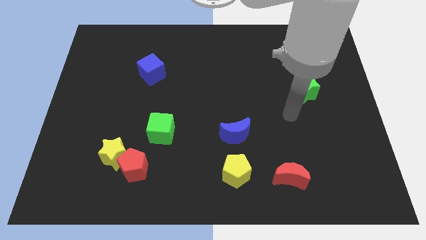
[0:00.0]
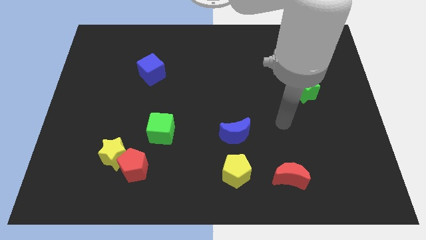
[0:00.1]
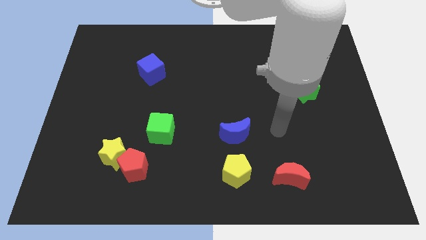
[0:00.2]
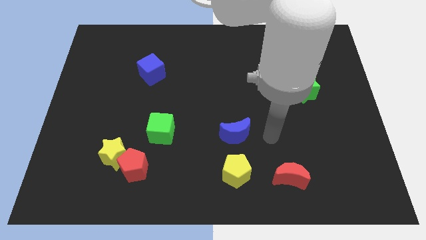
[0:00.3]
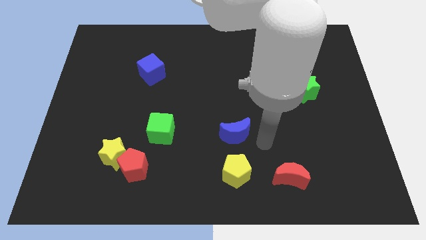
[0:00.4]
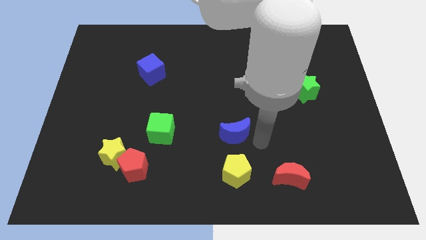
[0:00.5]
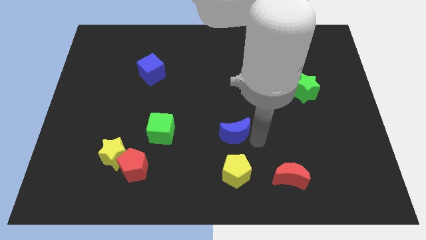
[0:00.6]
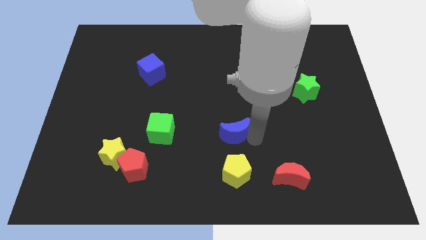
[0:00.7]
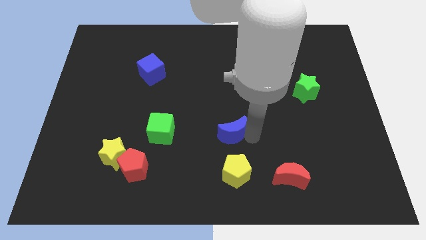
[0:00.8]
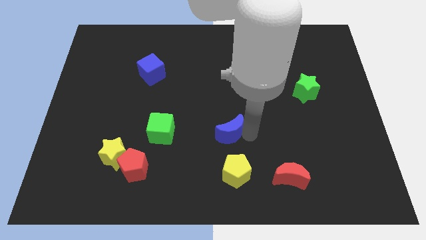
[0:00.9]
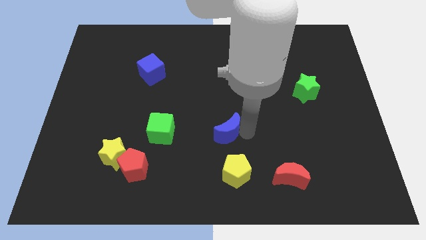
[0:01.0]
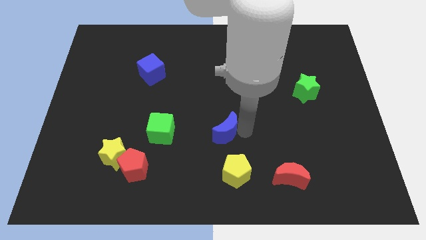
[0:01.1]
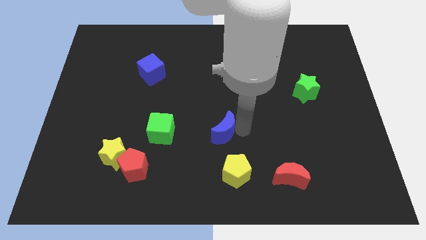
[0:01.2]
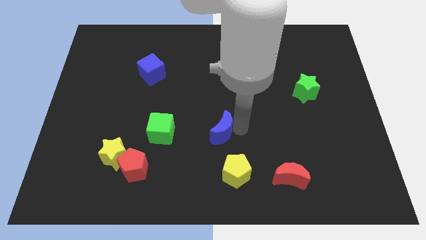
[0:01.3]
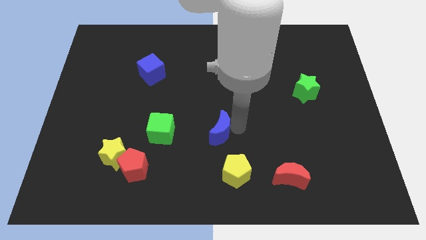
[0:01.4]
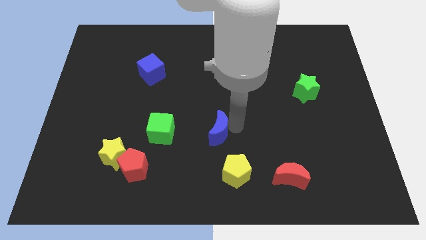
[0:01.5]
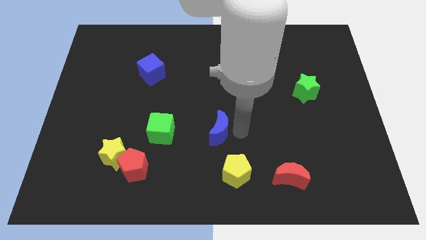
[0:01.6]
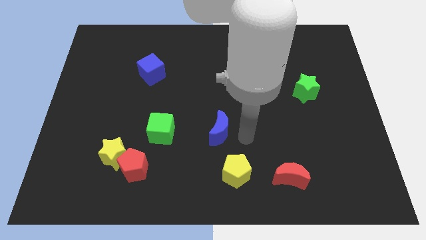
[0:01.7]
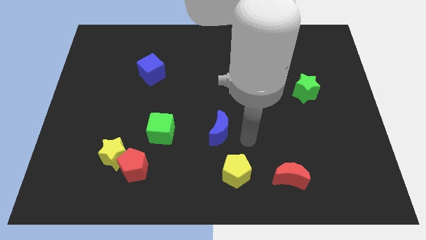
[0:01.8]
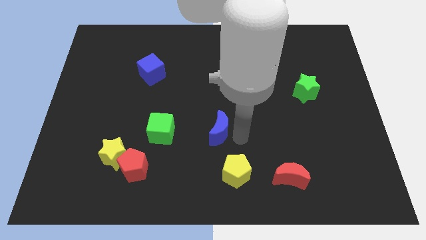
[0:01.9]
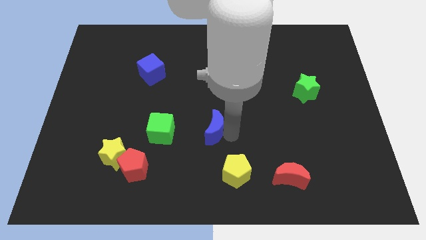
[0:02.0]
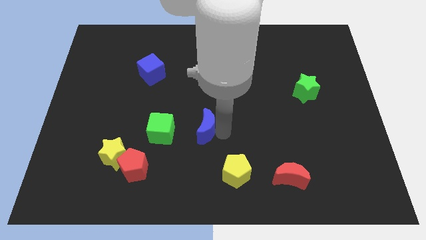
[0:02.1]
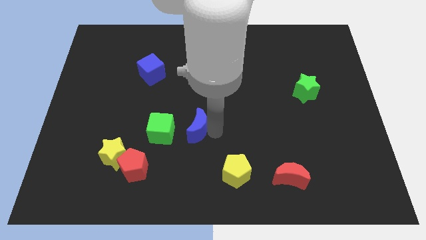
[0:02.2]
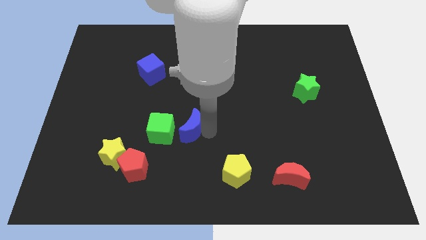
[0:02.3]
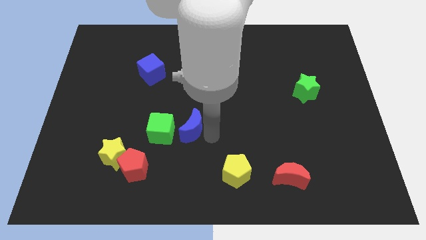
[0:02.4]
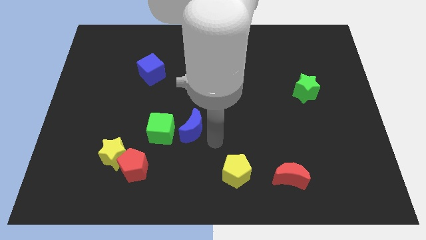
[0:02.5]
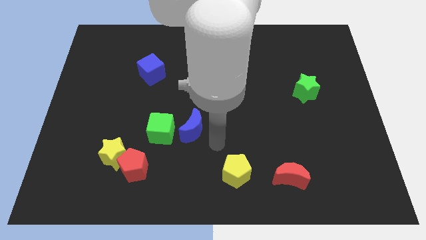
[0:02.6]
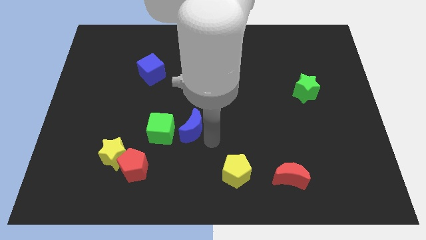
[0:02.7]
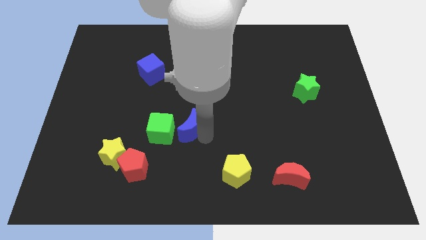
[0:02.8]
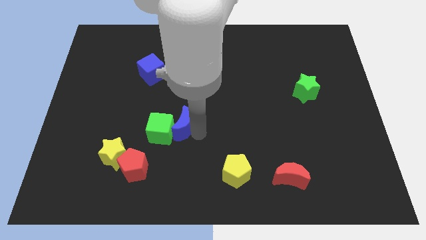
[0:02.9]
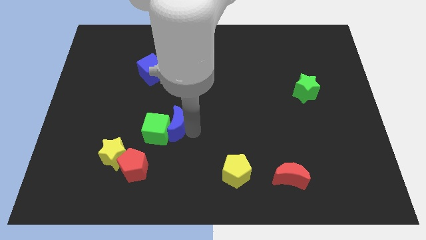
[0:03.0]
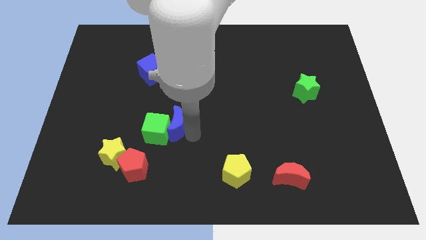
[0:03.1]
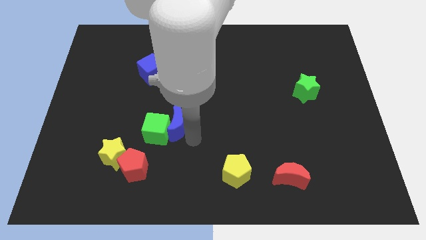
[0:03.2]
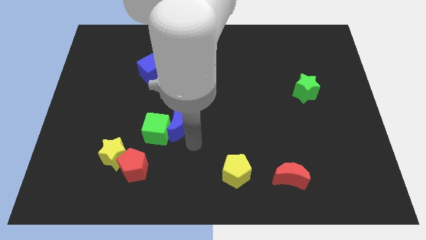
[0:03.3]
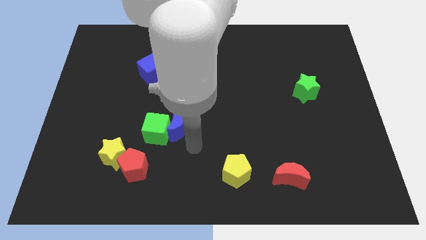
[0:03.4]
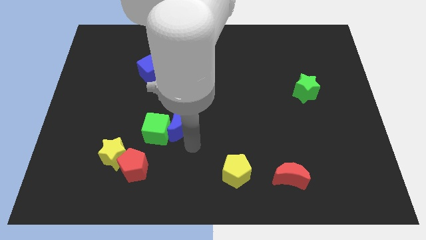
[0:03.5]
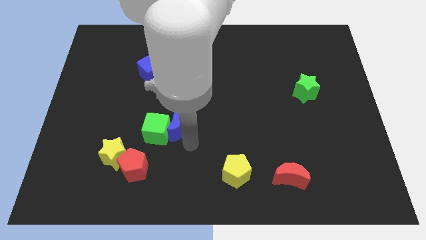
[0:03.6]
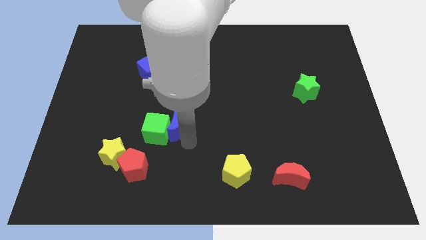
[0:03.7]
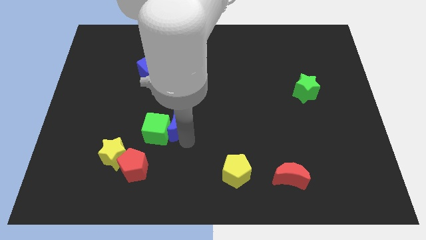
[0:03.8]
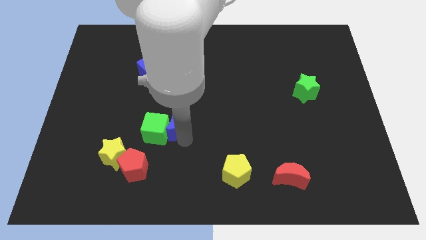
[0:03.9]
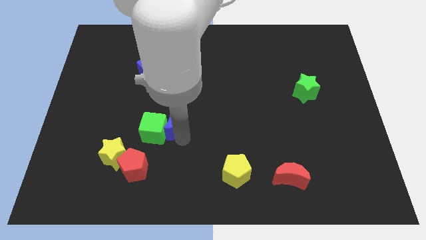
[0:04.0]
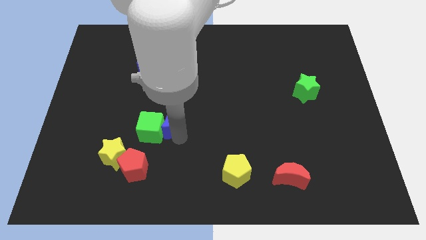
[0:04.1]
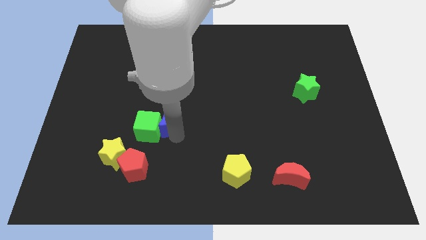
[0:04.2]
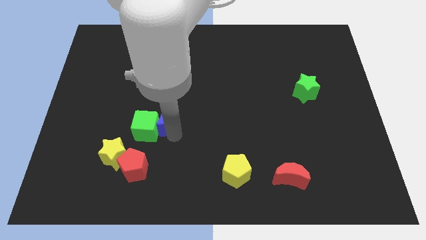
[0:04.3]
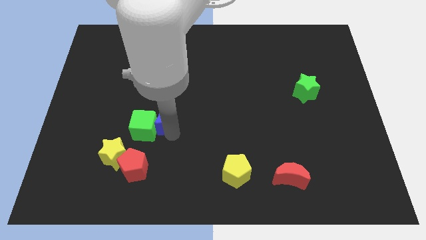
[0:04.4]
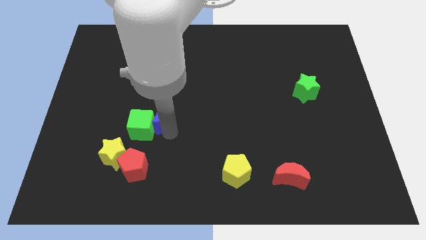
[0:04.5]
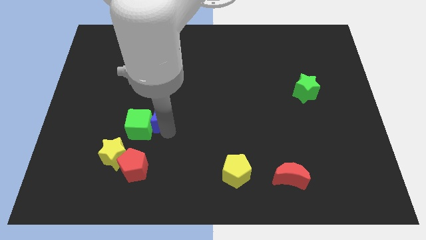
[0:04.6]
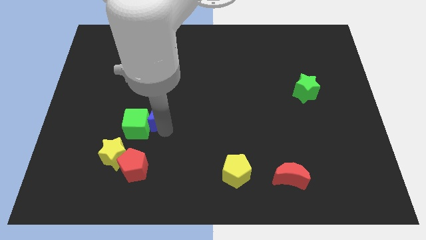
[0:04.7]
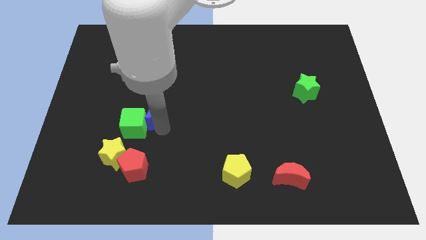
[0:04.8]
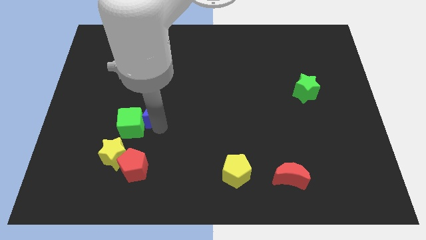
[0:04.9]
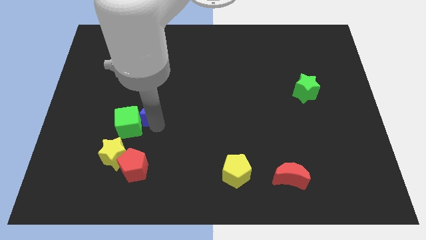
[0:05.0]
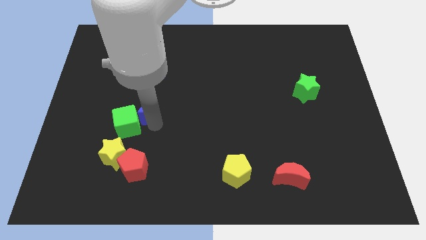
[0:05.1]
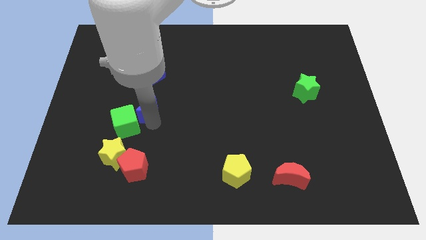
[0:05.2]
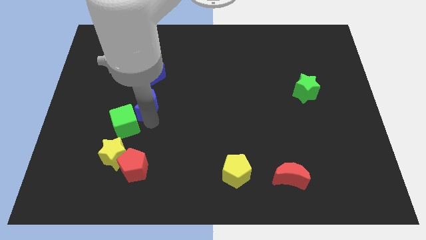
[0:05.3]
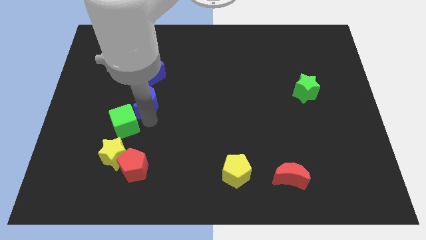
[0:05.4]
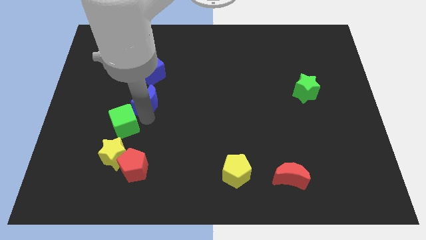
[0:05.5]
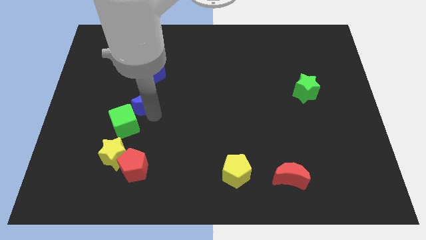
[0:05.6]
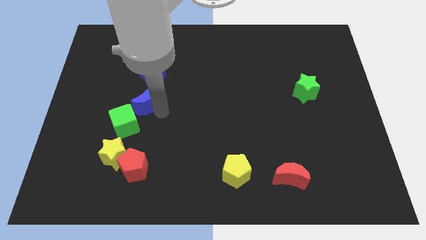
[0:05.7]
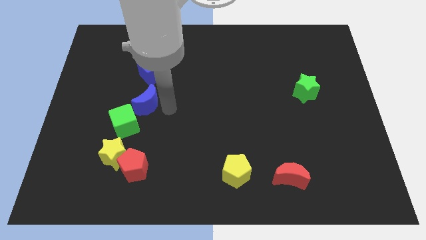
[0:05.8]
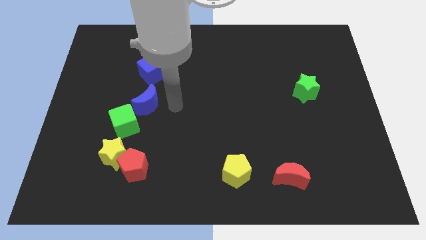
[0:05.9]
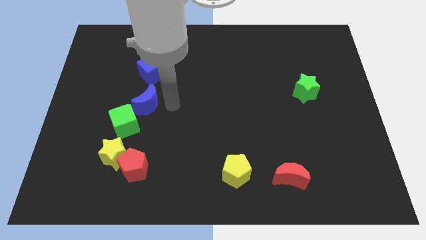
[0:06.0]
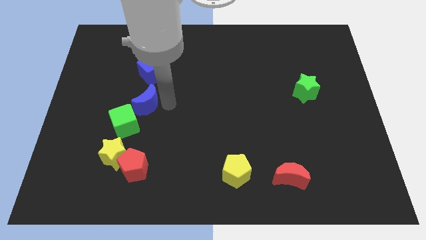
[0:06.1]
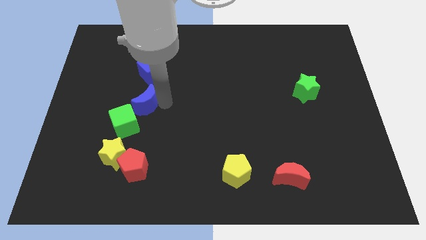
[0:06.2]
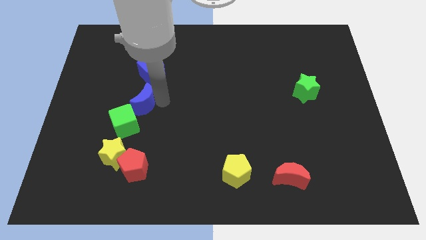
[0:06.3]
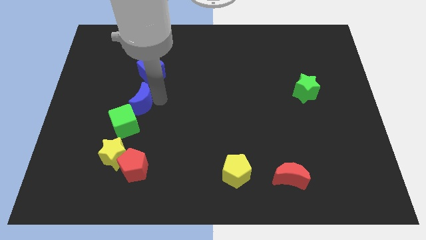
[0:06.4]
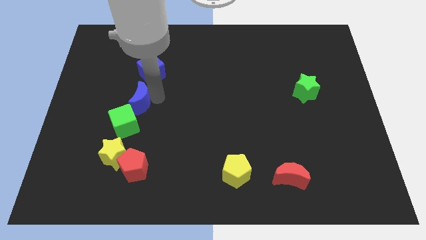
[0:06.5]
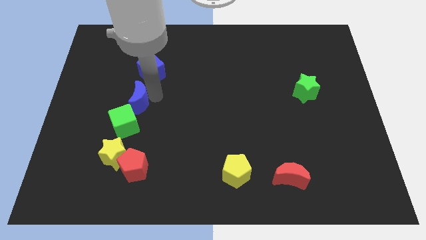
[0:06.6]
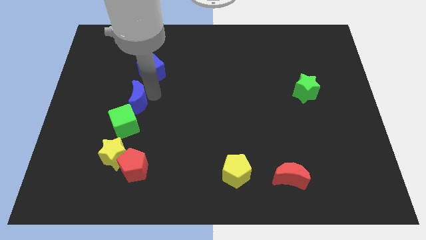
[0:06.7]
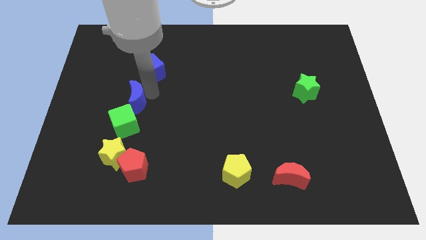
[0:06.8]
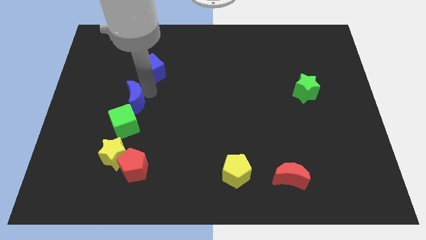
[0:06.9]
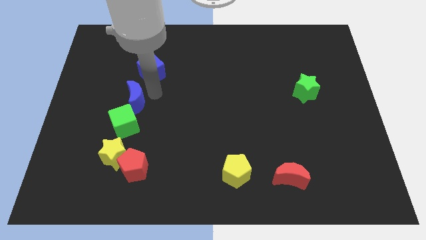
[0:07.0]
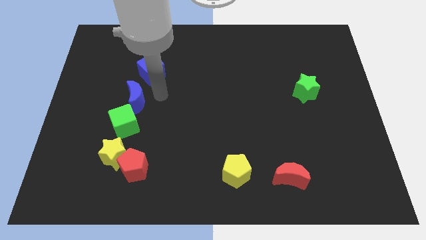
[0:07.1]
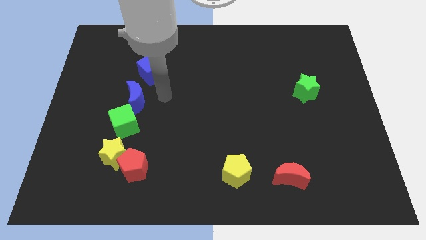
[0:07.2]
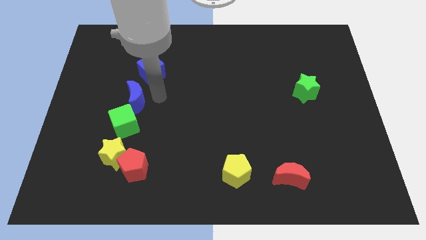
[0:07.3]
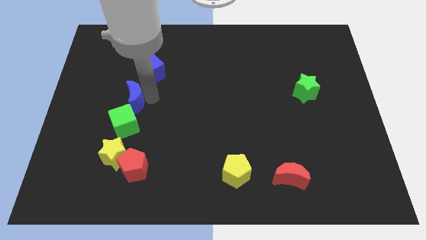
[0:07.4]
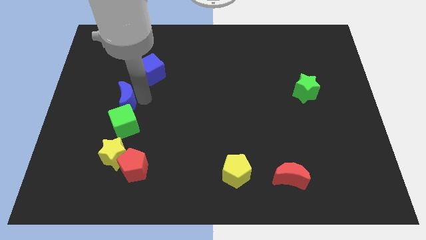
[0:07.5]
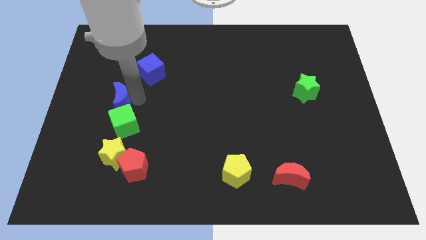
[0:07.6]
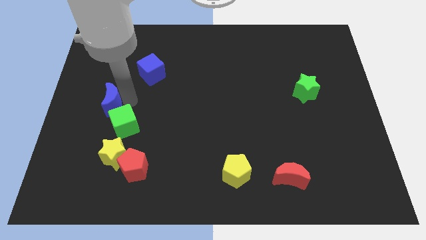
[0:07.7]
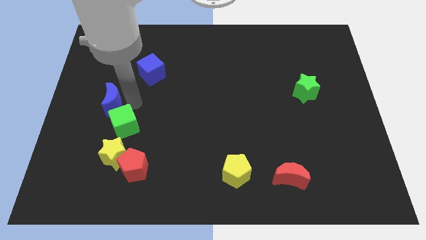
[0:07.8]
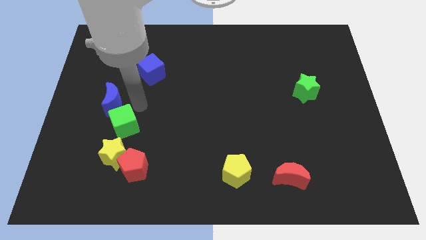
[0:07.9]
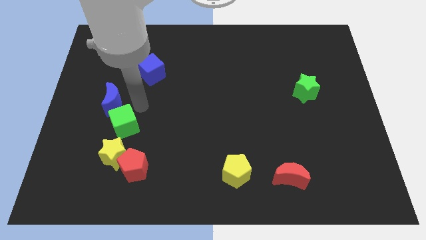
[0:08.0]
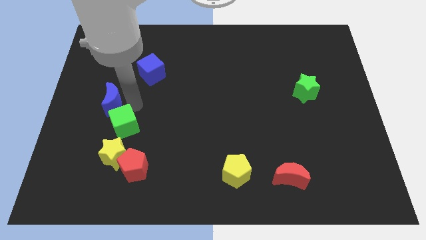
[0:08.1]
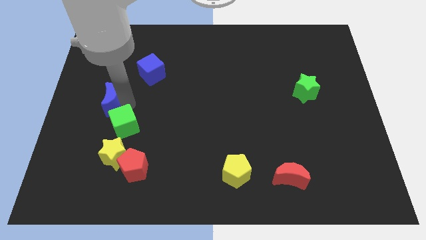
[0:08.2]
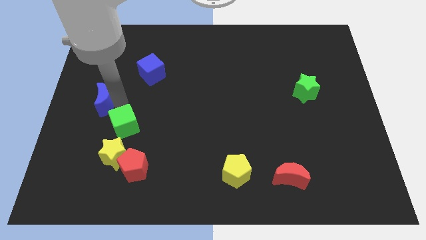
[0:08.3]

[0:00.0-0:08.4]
move the blue moon to the left side of the board
